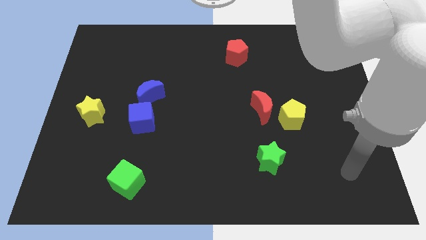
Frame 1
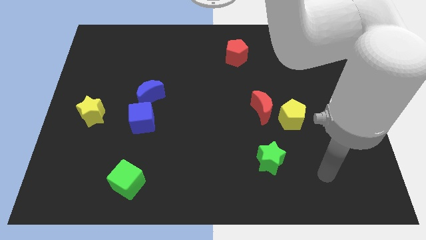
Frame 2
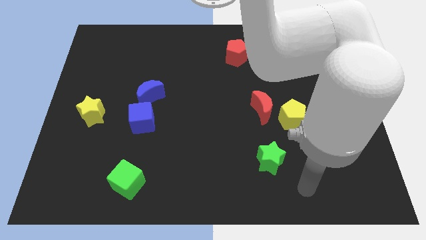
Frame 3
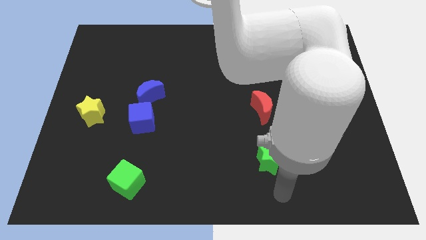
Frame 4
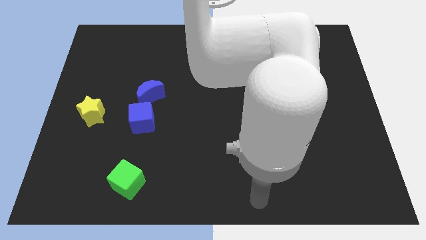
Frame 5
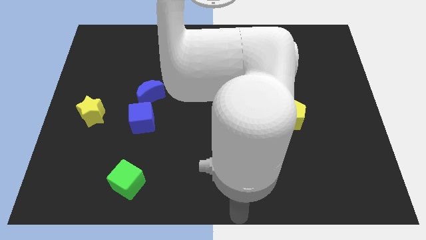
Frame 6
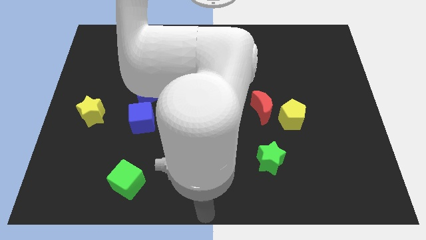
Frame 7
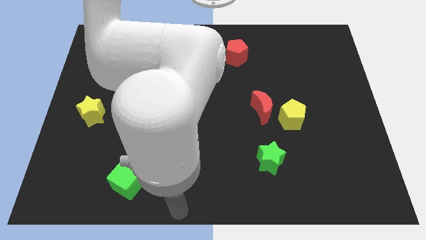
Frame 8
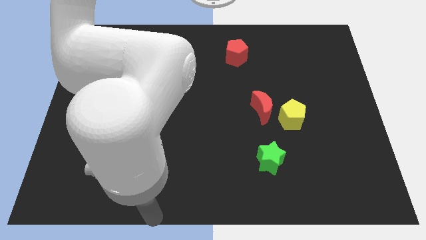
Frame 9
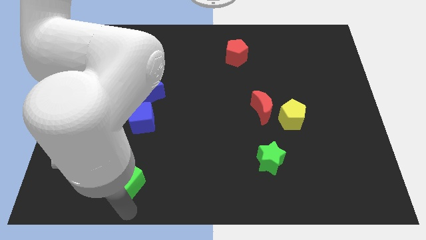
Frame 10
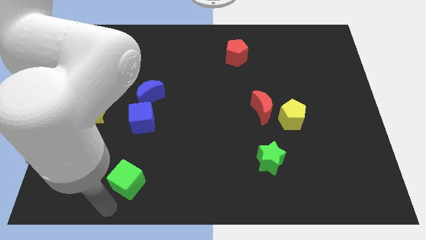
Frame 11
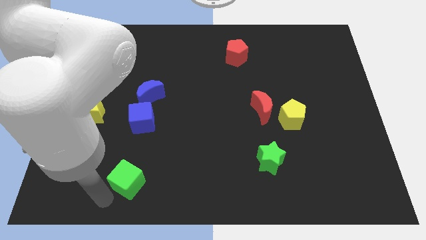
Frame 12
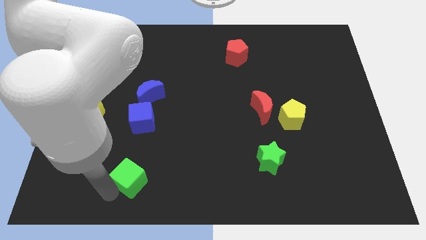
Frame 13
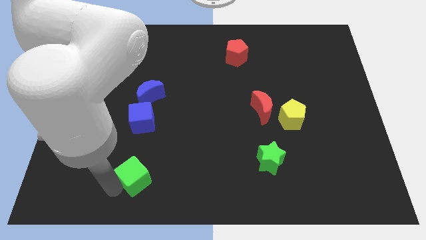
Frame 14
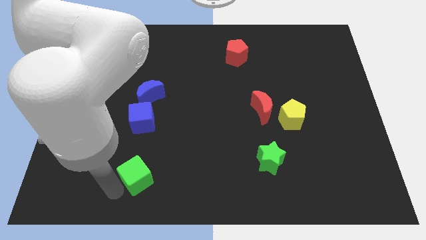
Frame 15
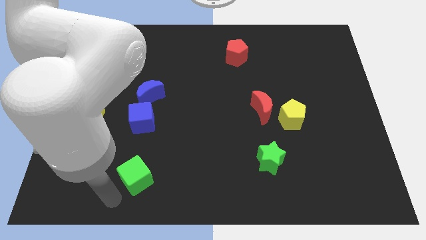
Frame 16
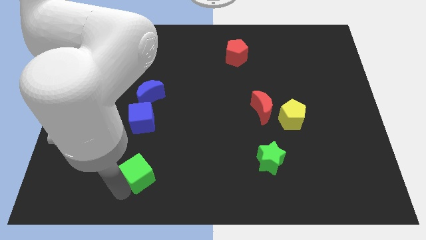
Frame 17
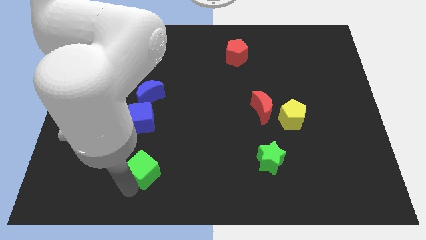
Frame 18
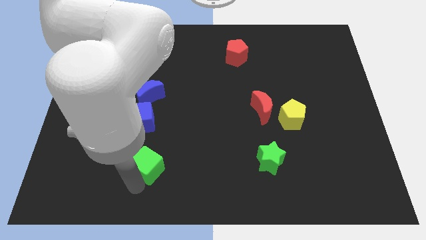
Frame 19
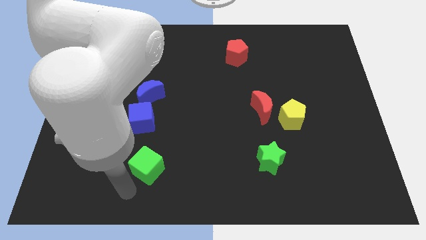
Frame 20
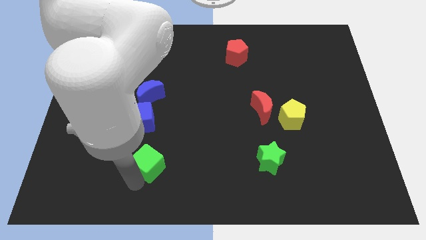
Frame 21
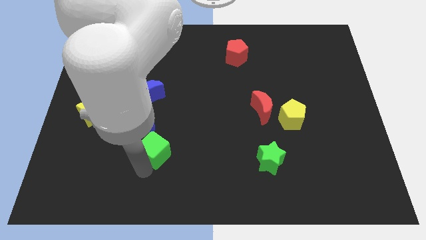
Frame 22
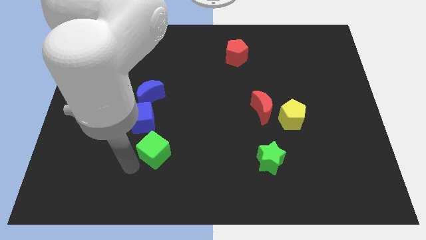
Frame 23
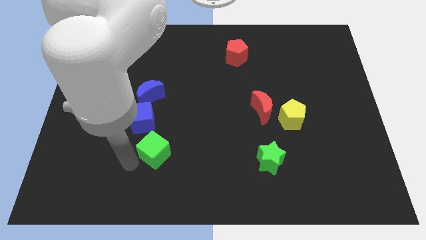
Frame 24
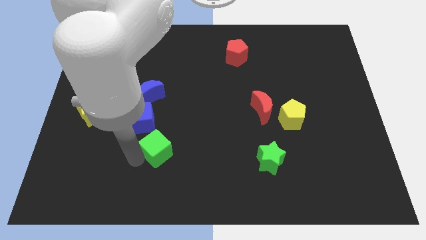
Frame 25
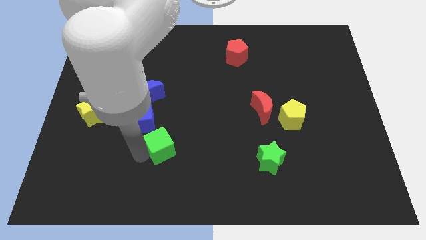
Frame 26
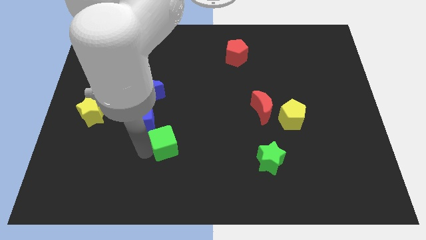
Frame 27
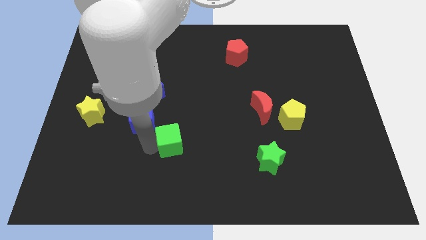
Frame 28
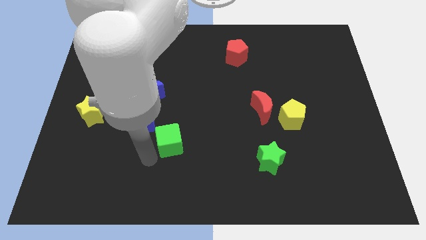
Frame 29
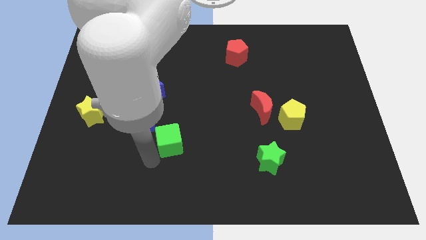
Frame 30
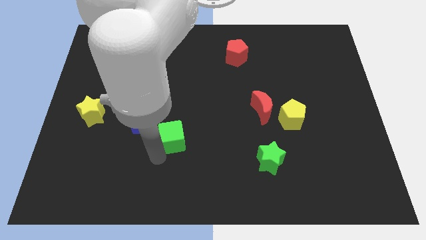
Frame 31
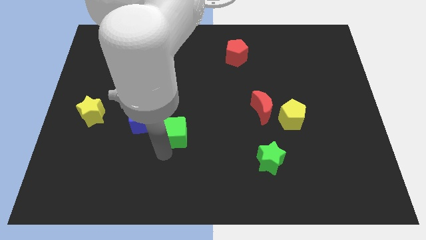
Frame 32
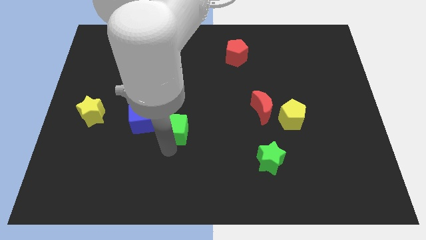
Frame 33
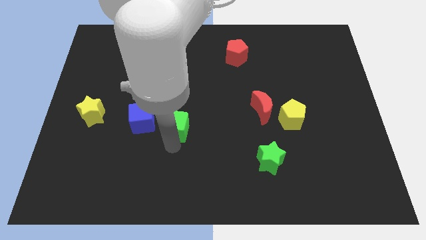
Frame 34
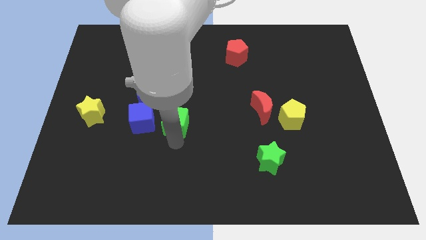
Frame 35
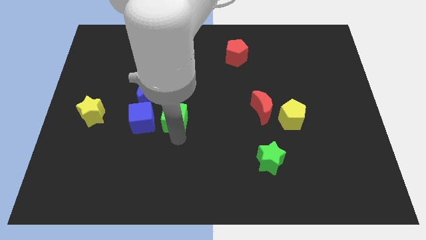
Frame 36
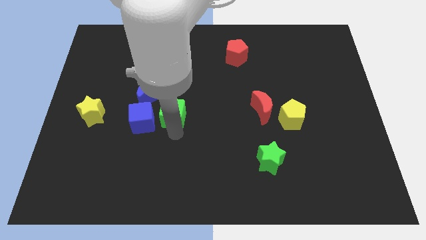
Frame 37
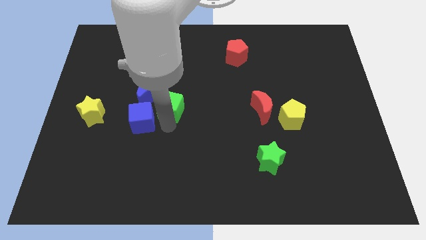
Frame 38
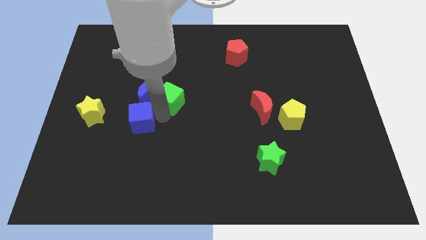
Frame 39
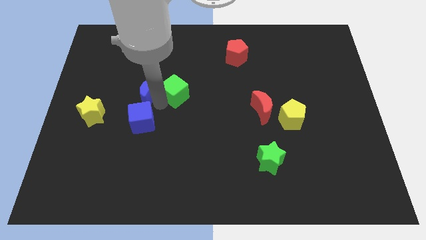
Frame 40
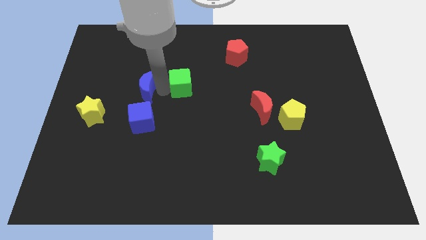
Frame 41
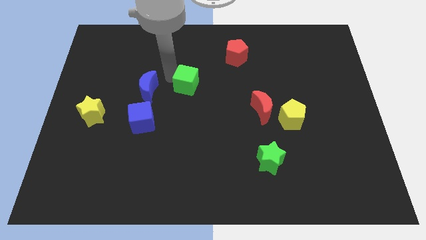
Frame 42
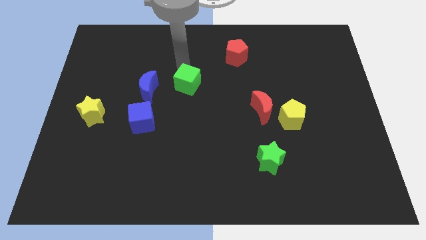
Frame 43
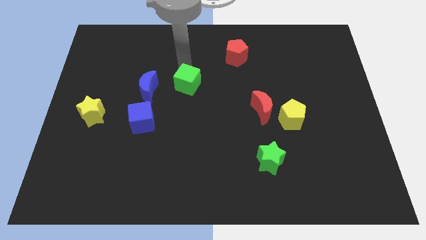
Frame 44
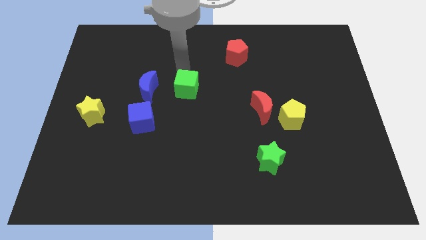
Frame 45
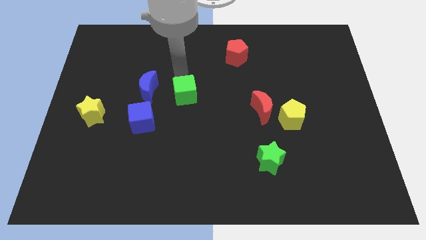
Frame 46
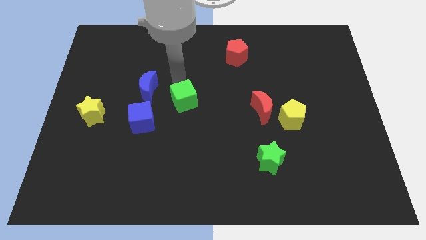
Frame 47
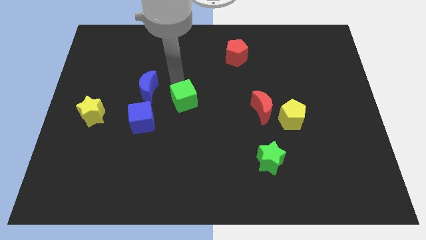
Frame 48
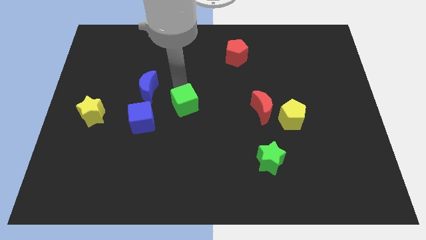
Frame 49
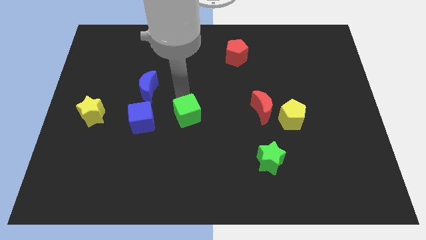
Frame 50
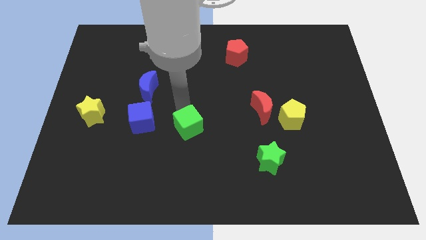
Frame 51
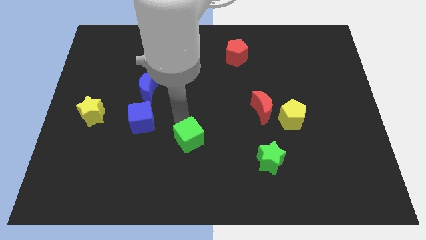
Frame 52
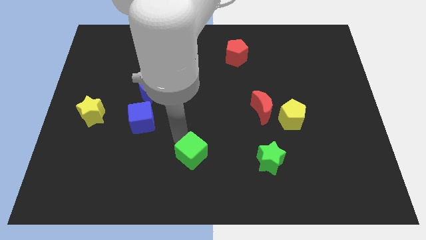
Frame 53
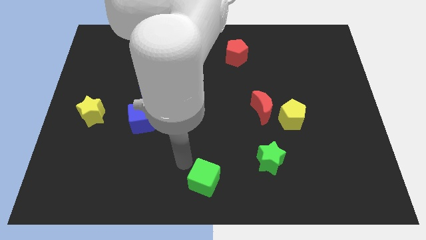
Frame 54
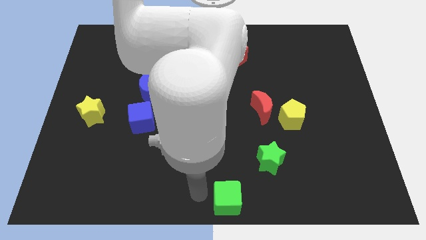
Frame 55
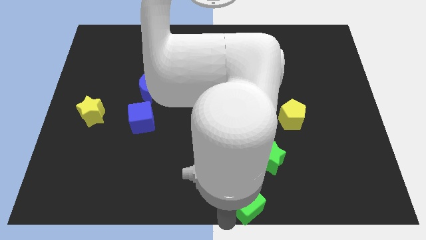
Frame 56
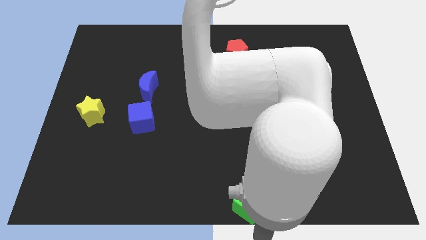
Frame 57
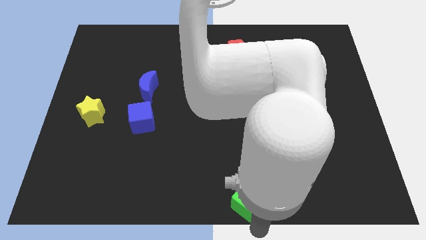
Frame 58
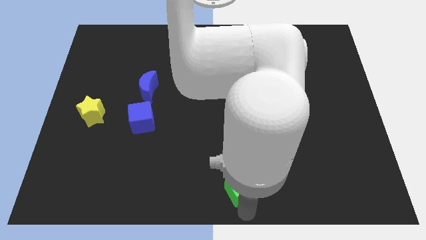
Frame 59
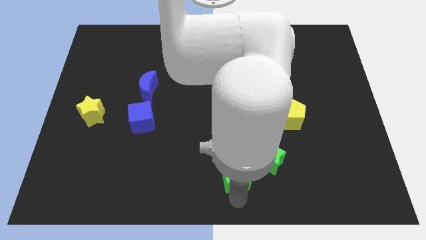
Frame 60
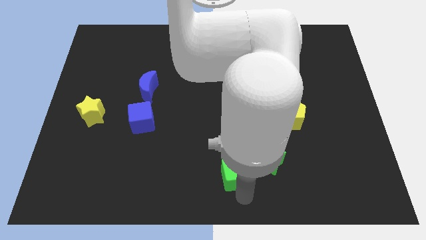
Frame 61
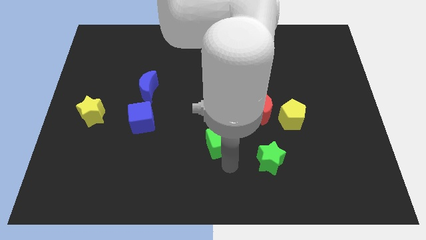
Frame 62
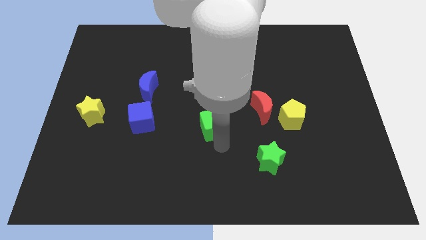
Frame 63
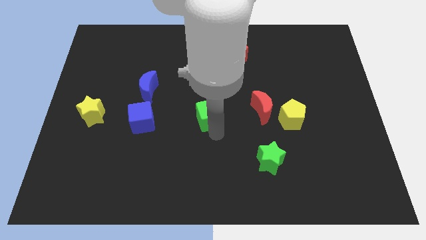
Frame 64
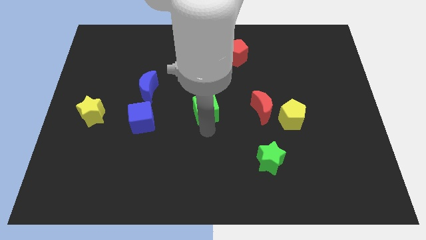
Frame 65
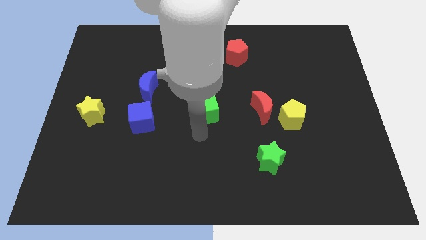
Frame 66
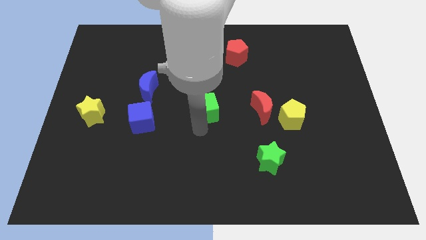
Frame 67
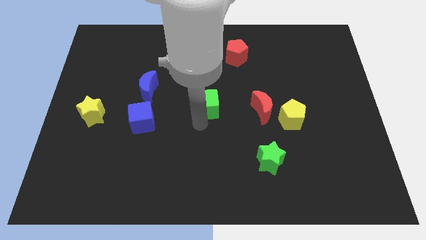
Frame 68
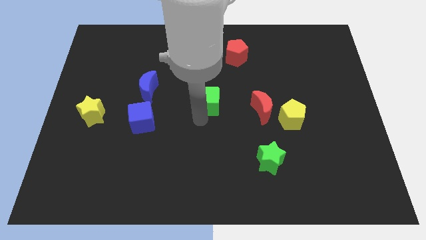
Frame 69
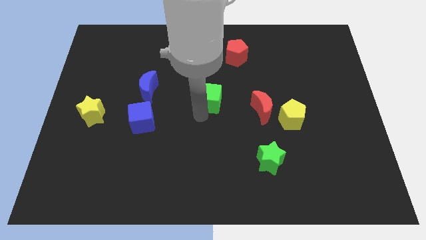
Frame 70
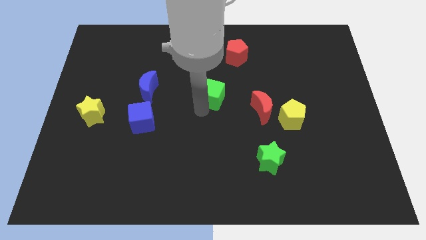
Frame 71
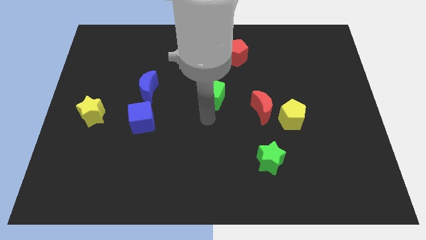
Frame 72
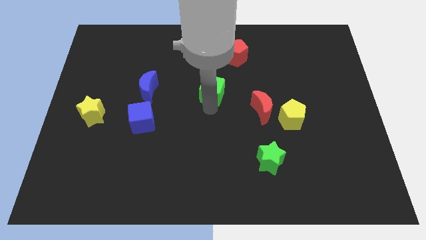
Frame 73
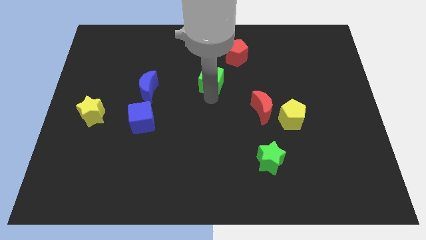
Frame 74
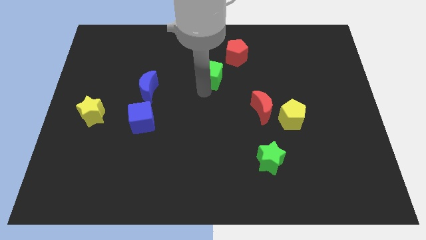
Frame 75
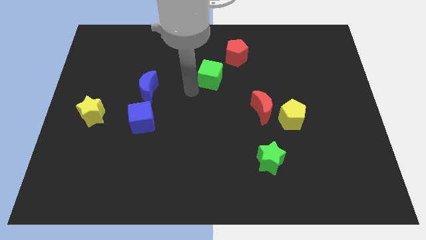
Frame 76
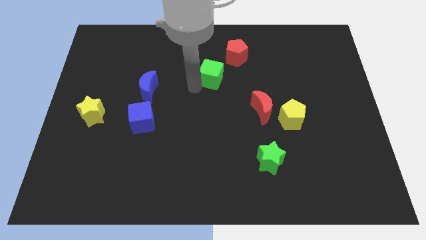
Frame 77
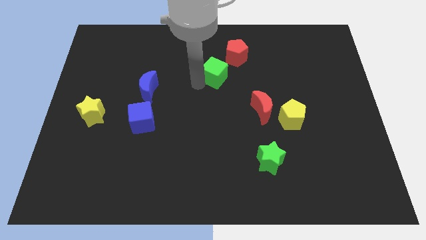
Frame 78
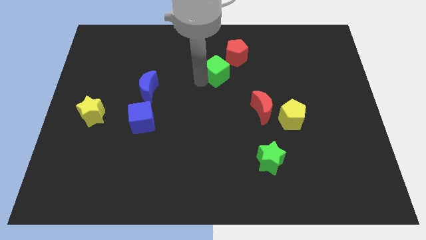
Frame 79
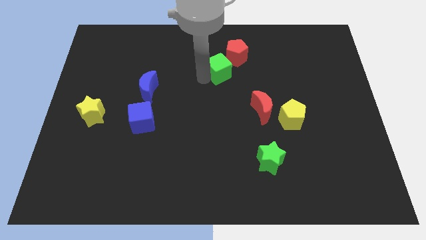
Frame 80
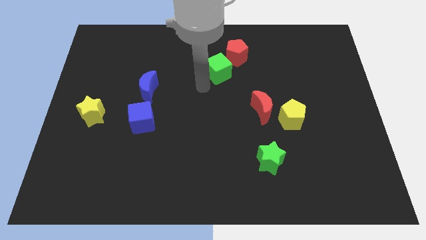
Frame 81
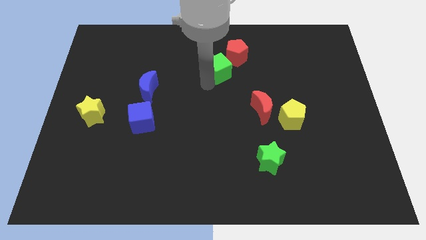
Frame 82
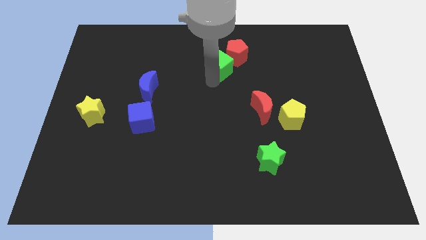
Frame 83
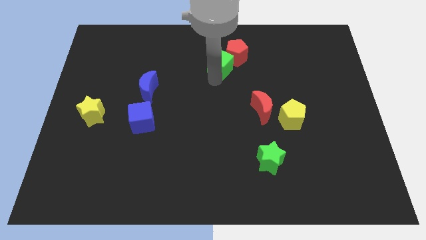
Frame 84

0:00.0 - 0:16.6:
slide the green cube close to the red pentagon
